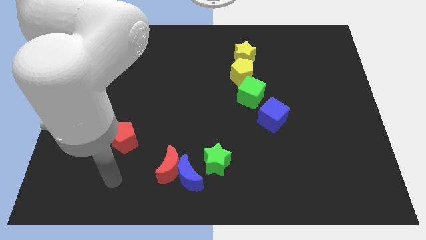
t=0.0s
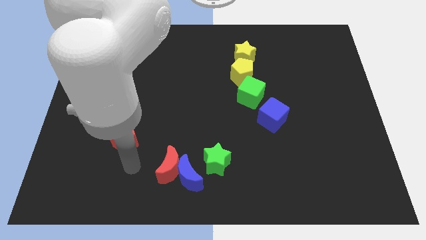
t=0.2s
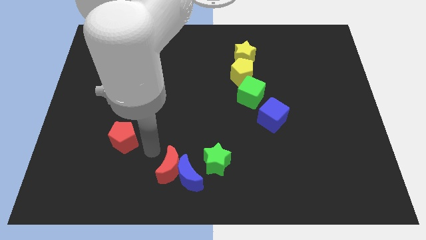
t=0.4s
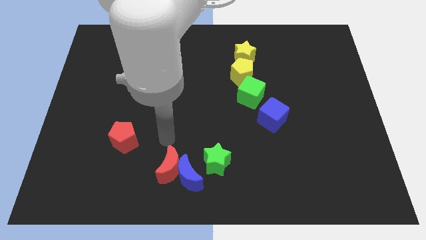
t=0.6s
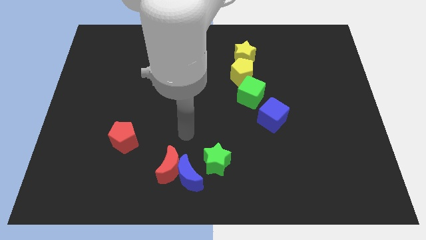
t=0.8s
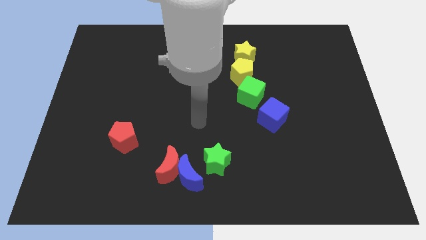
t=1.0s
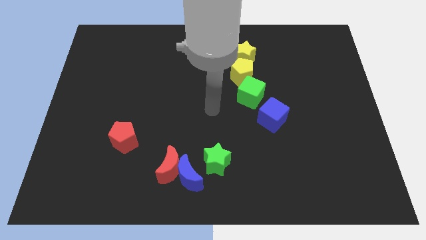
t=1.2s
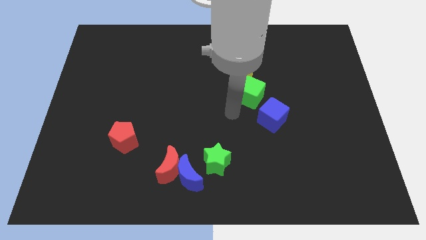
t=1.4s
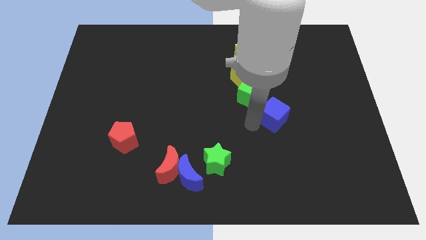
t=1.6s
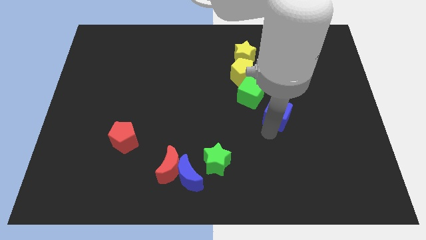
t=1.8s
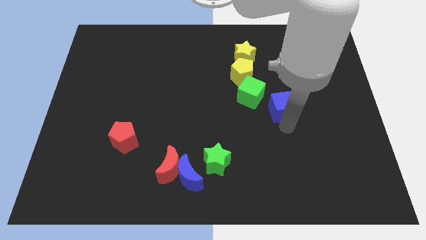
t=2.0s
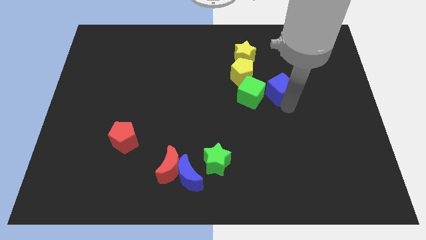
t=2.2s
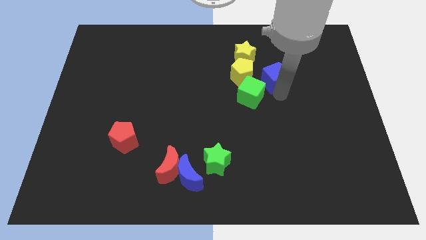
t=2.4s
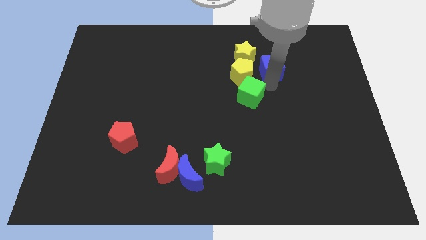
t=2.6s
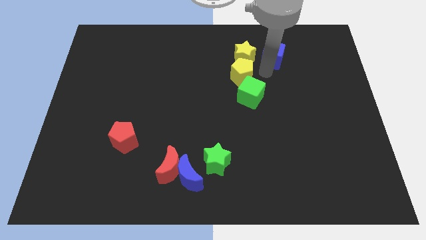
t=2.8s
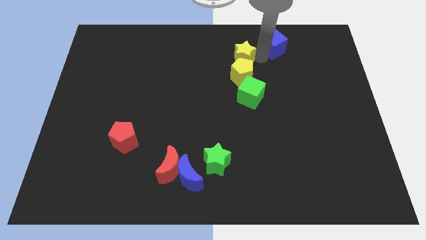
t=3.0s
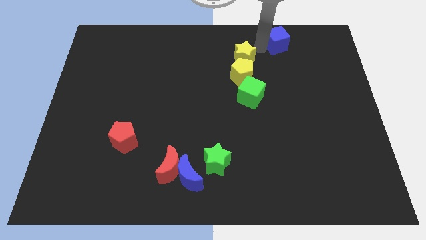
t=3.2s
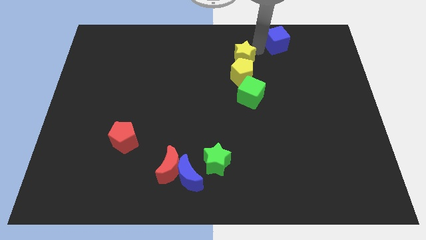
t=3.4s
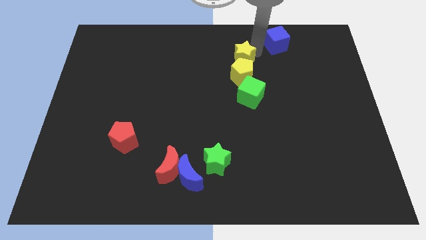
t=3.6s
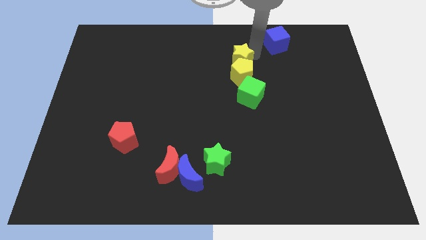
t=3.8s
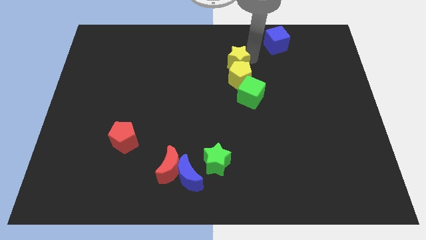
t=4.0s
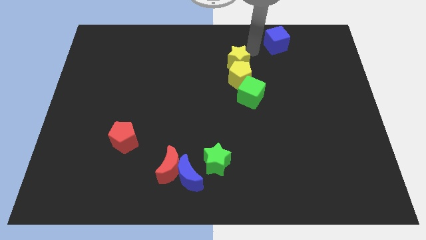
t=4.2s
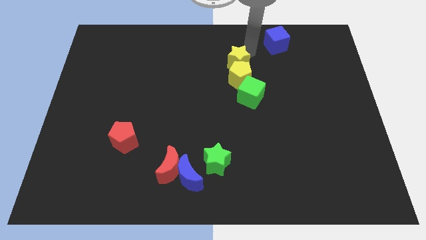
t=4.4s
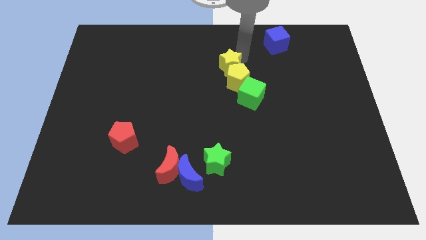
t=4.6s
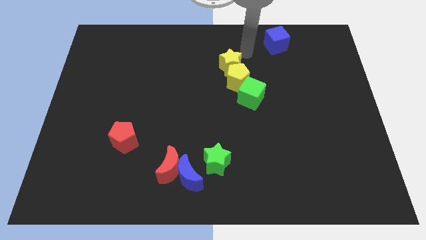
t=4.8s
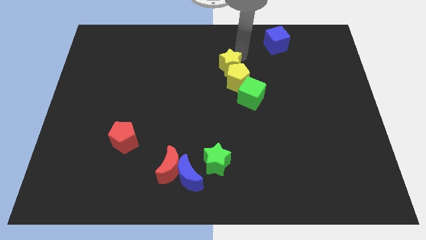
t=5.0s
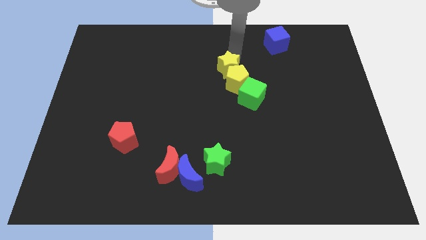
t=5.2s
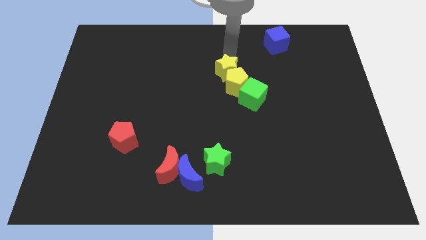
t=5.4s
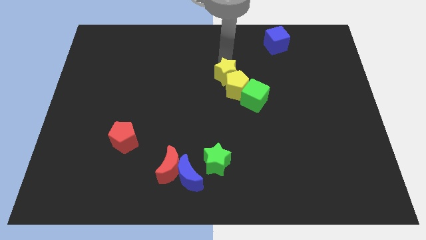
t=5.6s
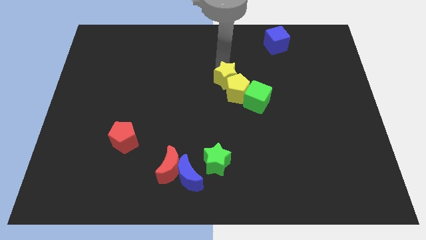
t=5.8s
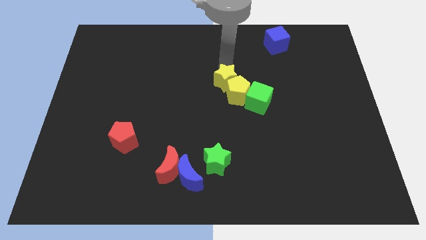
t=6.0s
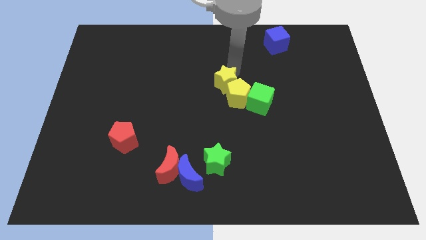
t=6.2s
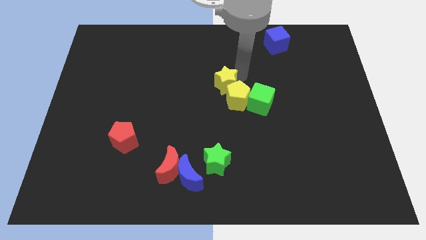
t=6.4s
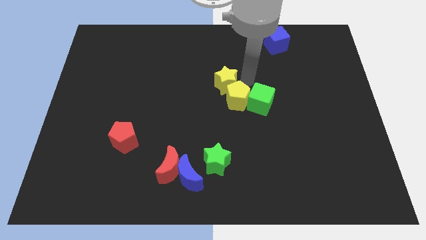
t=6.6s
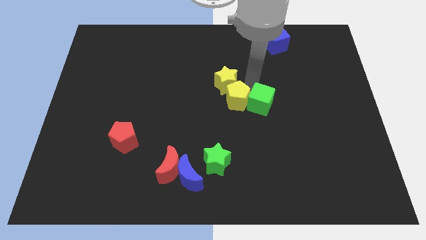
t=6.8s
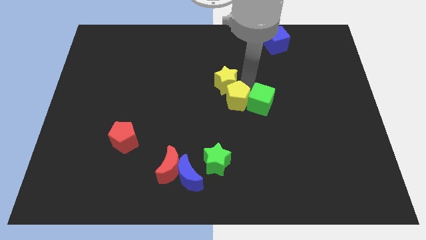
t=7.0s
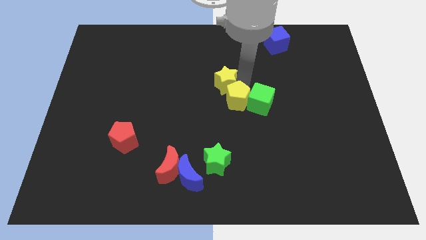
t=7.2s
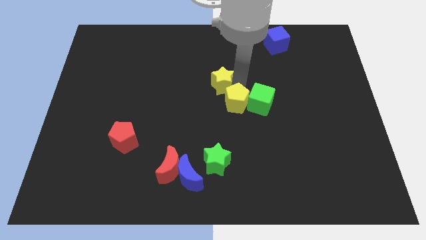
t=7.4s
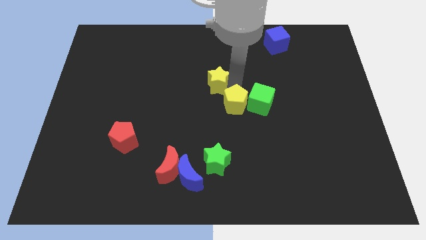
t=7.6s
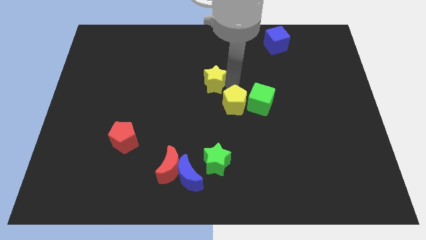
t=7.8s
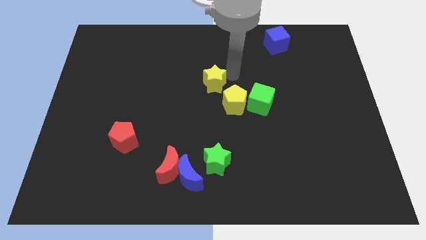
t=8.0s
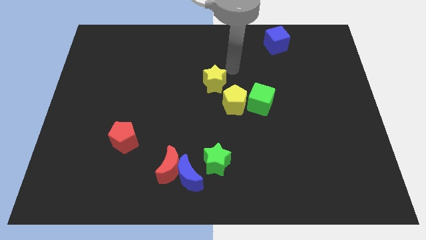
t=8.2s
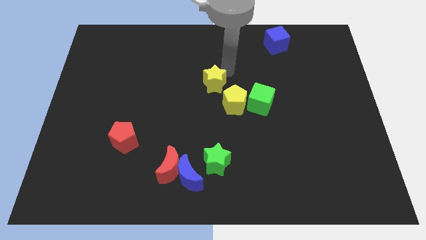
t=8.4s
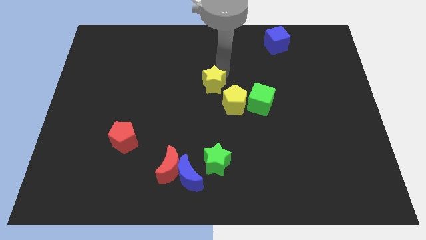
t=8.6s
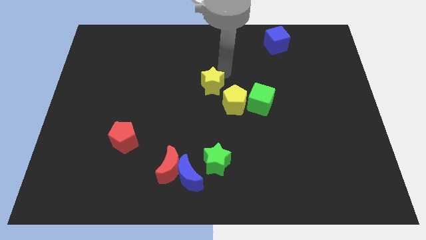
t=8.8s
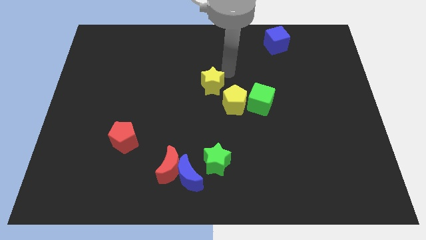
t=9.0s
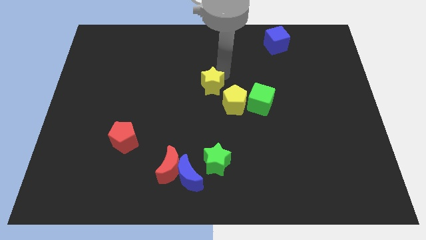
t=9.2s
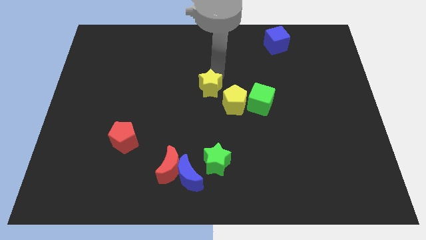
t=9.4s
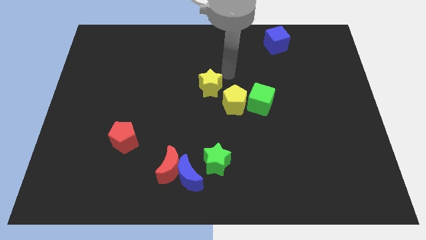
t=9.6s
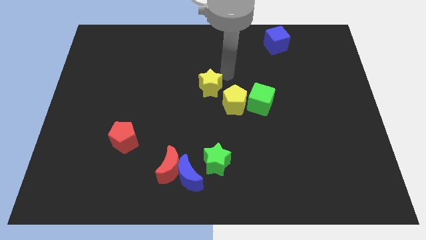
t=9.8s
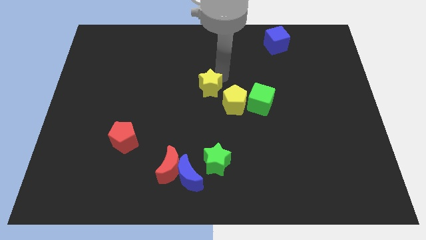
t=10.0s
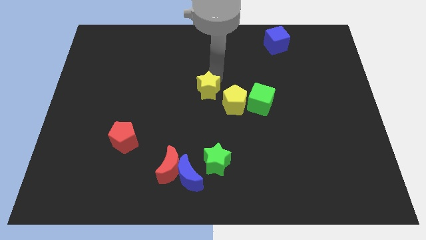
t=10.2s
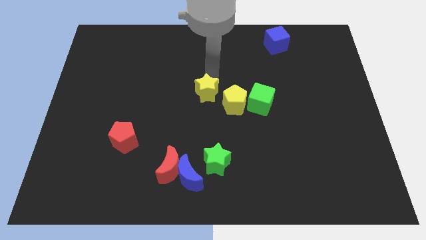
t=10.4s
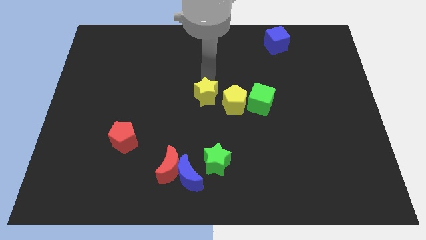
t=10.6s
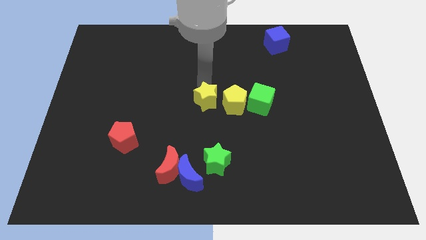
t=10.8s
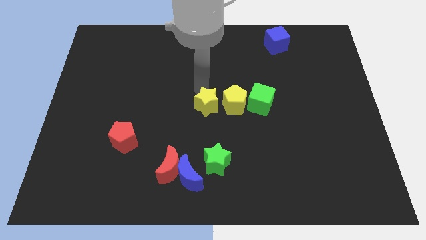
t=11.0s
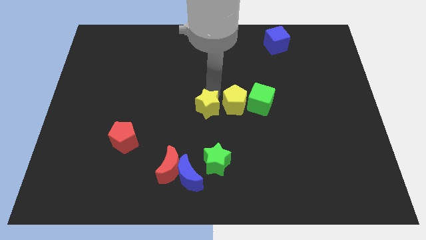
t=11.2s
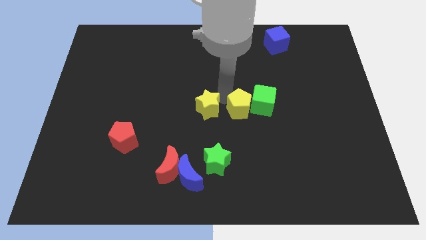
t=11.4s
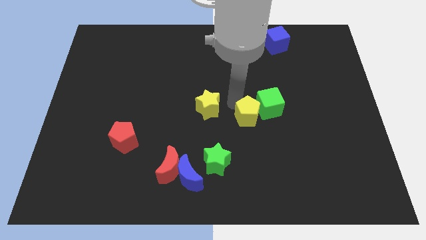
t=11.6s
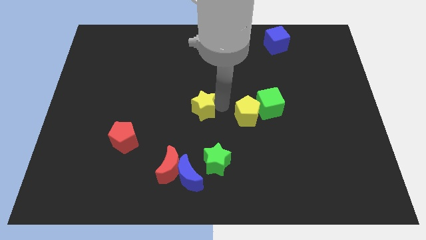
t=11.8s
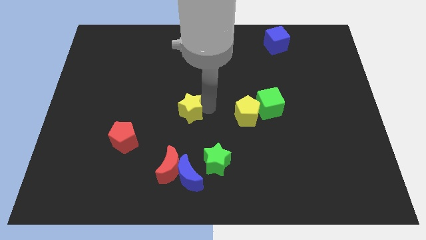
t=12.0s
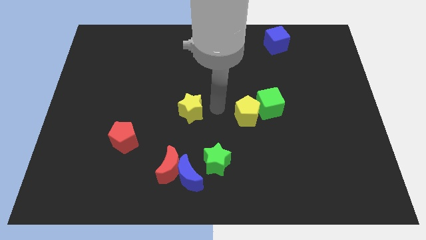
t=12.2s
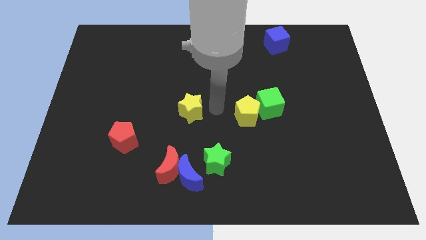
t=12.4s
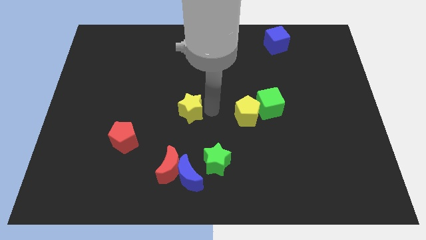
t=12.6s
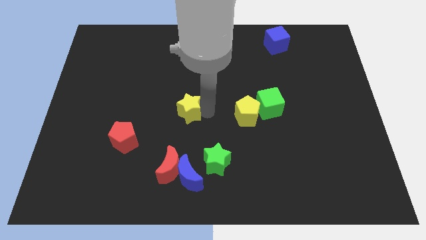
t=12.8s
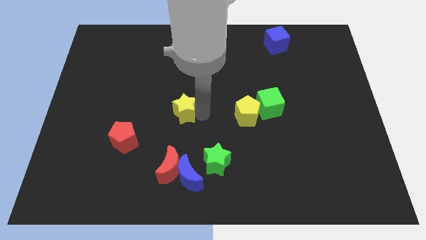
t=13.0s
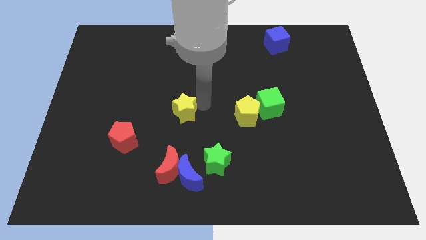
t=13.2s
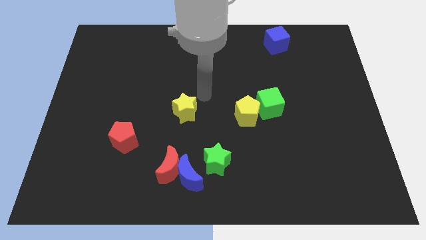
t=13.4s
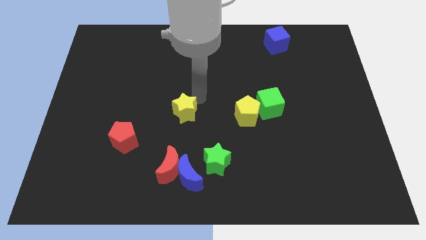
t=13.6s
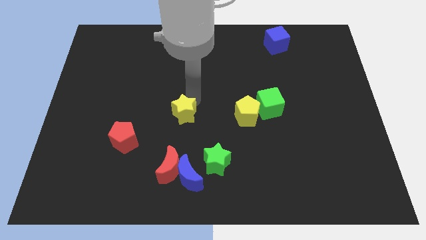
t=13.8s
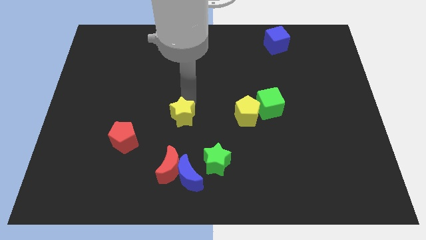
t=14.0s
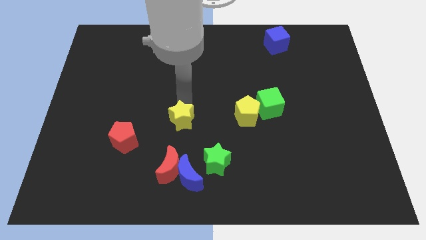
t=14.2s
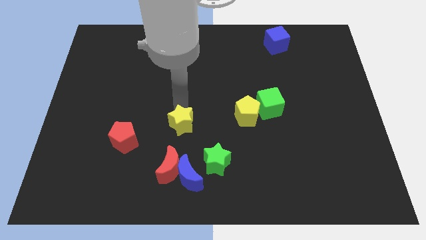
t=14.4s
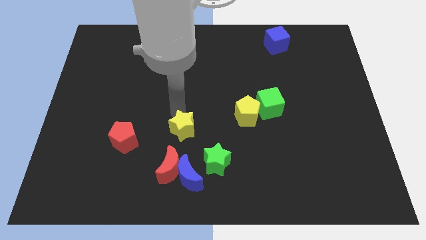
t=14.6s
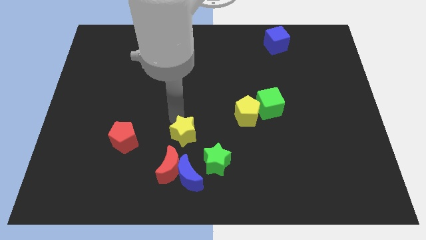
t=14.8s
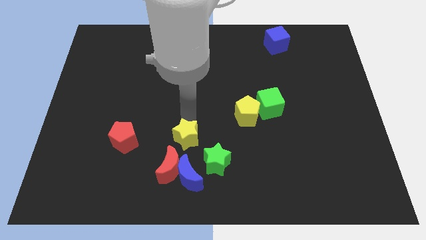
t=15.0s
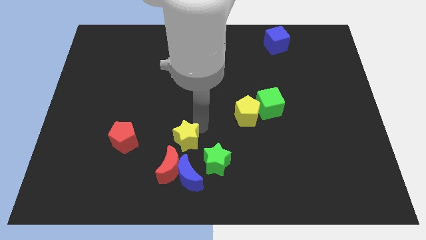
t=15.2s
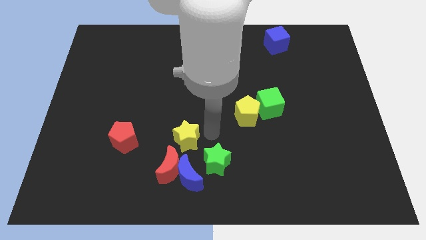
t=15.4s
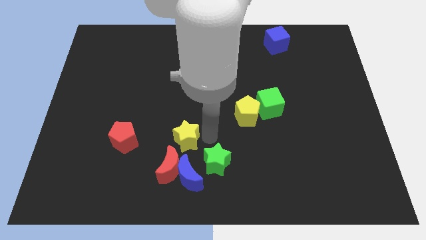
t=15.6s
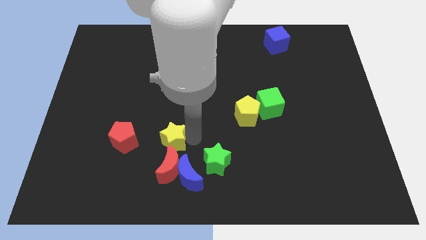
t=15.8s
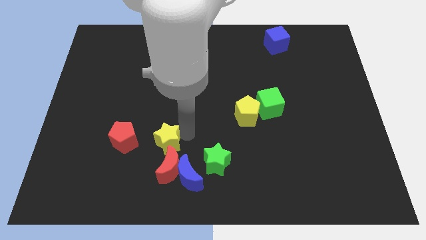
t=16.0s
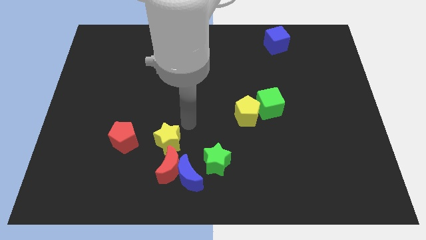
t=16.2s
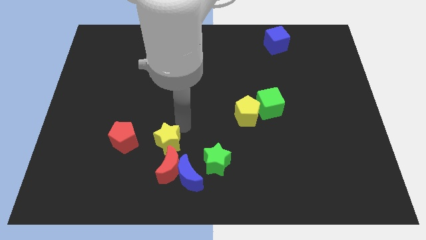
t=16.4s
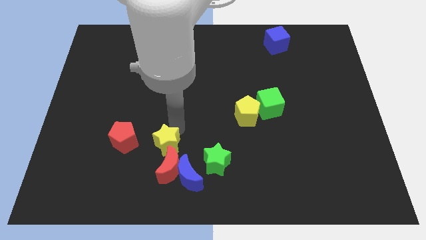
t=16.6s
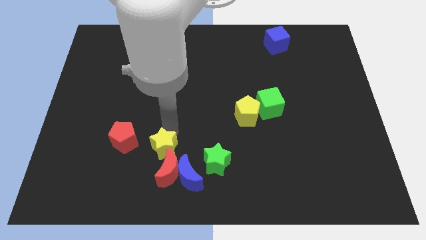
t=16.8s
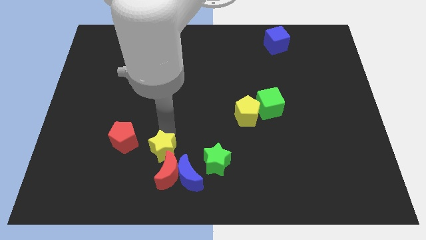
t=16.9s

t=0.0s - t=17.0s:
slide the yellow star diagonally down and to the right of the red pentagon
